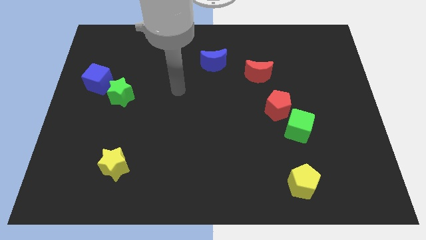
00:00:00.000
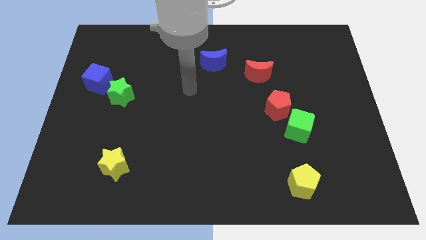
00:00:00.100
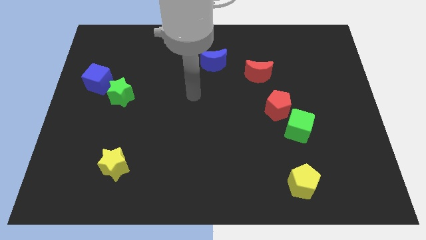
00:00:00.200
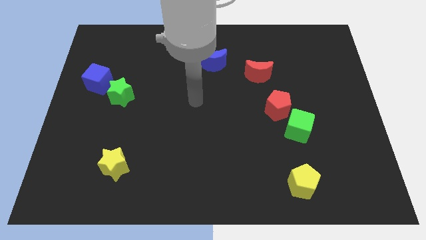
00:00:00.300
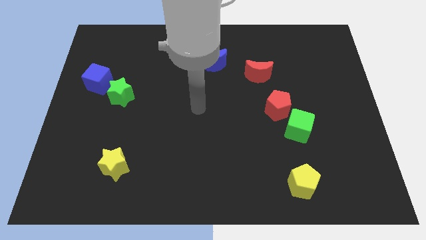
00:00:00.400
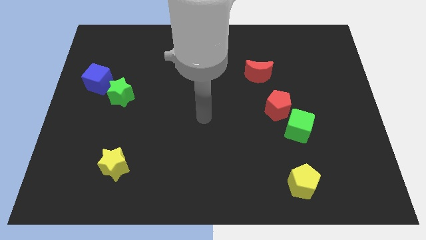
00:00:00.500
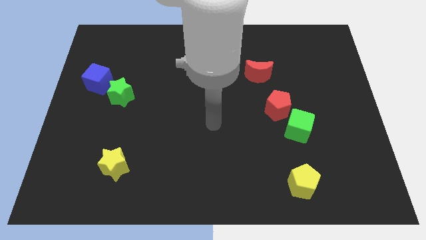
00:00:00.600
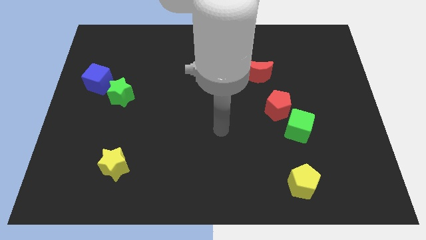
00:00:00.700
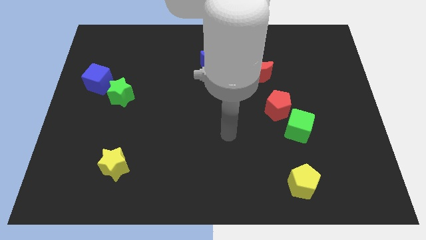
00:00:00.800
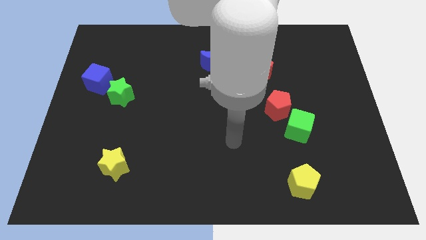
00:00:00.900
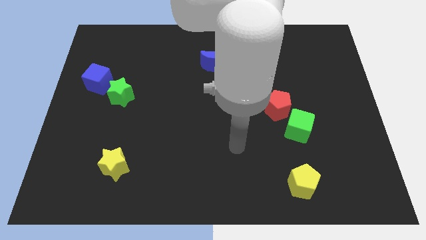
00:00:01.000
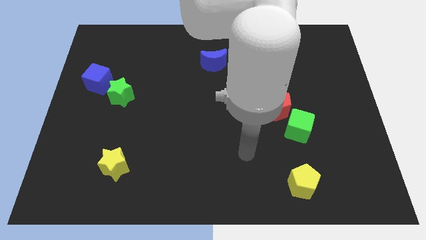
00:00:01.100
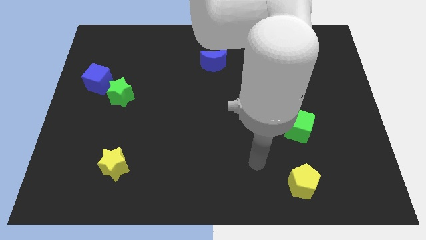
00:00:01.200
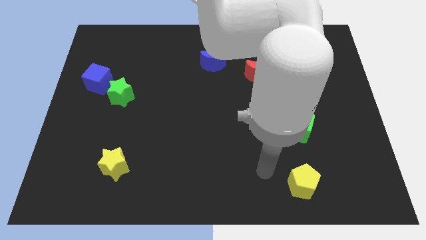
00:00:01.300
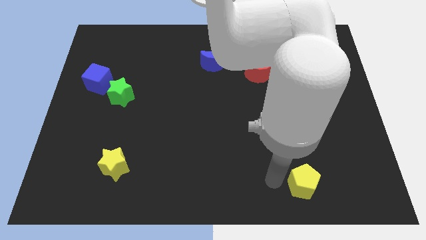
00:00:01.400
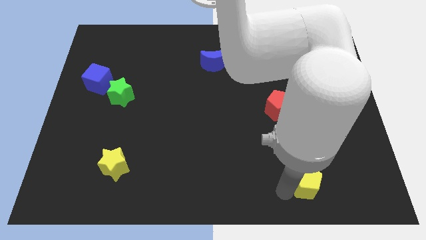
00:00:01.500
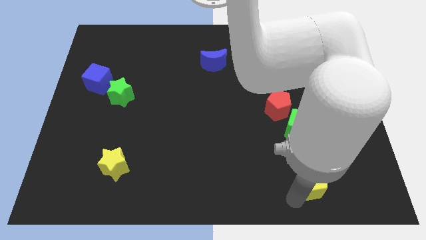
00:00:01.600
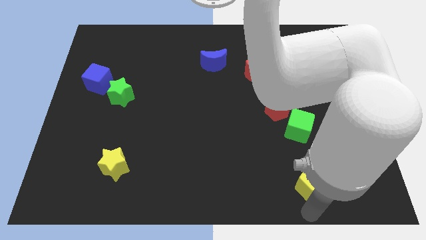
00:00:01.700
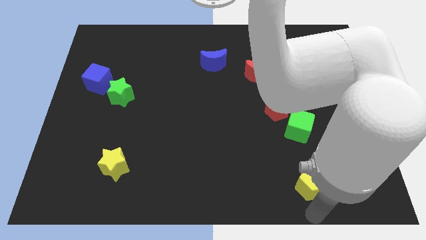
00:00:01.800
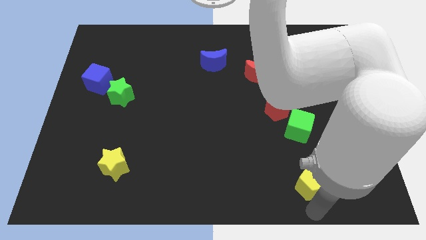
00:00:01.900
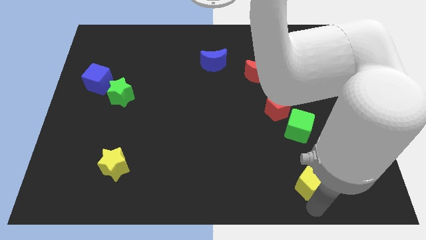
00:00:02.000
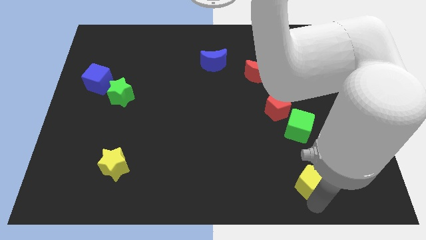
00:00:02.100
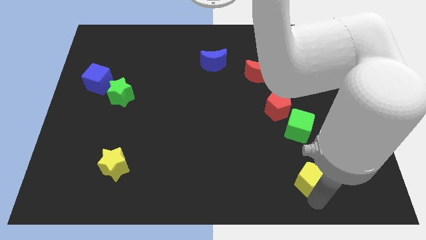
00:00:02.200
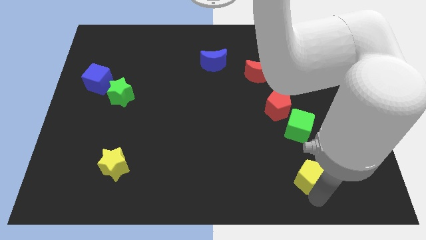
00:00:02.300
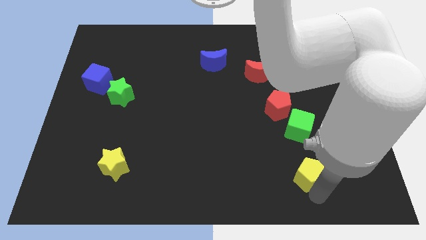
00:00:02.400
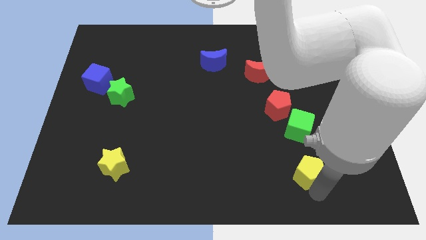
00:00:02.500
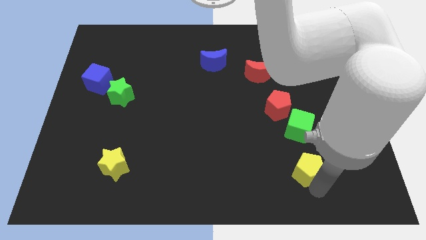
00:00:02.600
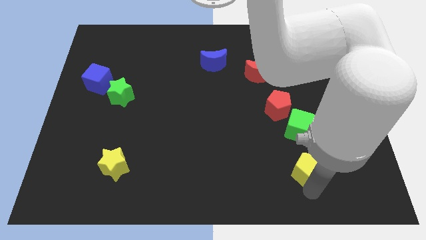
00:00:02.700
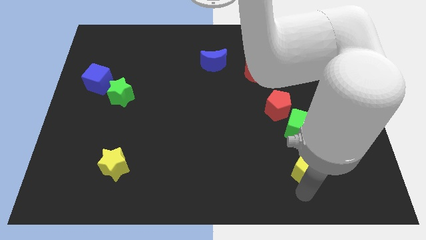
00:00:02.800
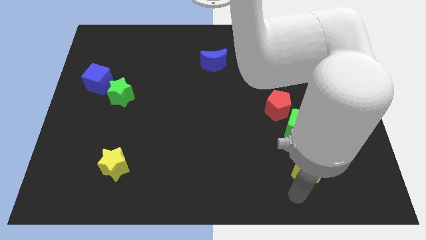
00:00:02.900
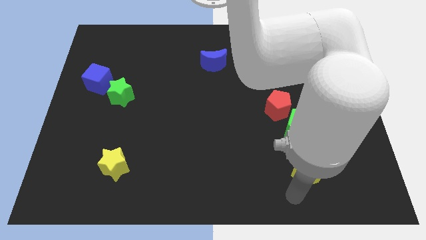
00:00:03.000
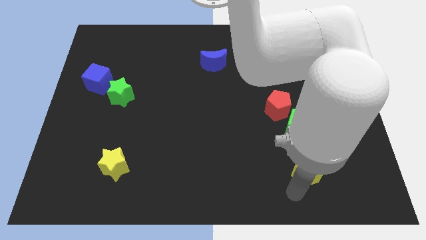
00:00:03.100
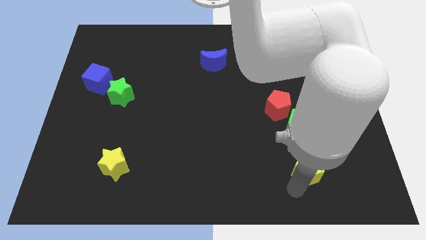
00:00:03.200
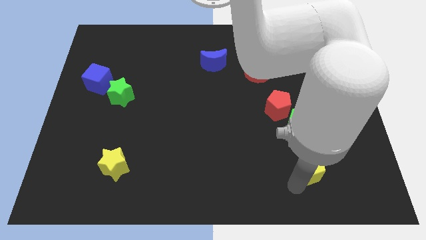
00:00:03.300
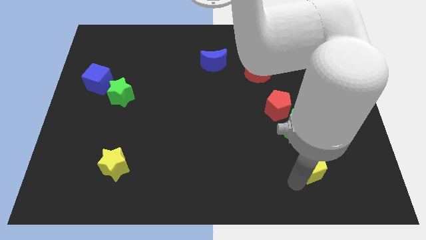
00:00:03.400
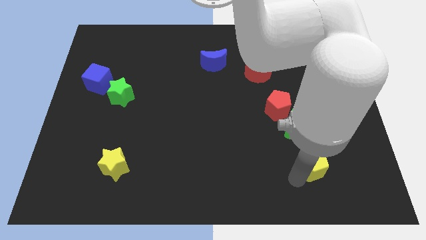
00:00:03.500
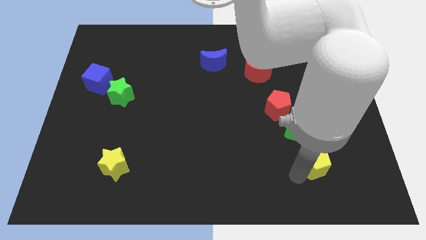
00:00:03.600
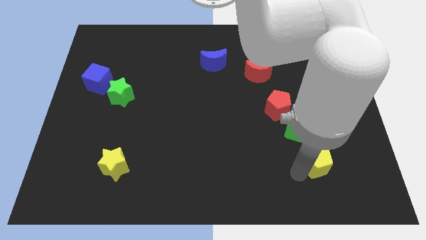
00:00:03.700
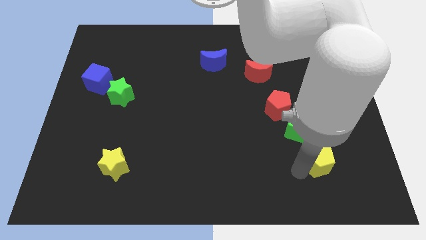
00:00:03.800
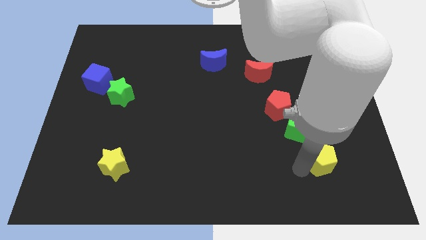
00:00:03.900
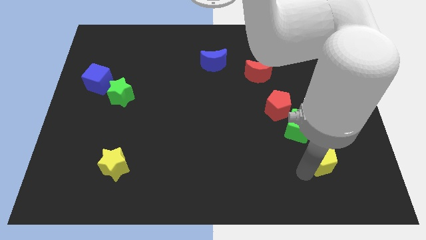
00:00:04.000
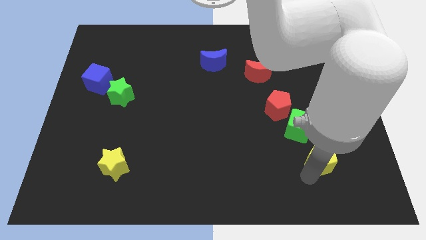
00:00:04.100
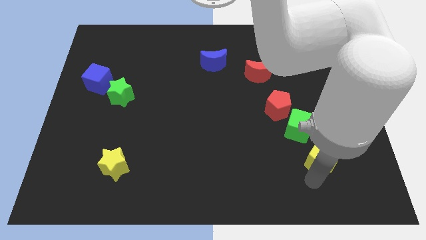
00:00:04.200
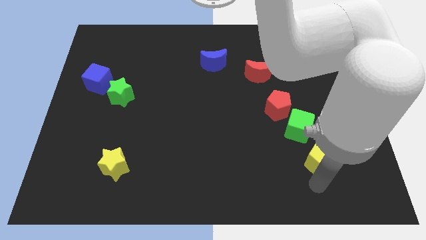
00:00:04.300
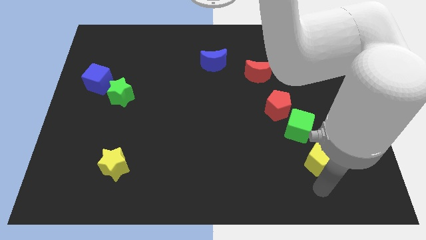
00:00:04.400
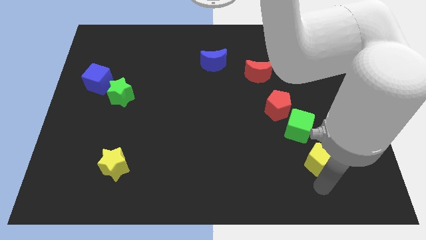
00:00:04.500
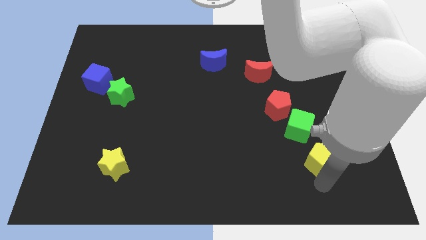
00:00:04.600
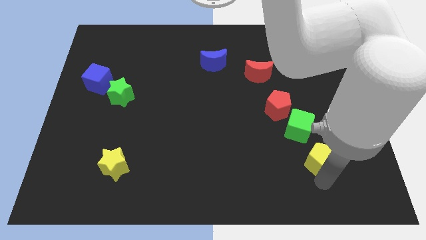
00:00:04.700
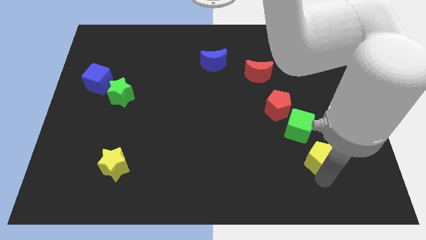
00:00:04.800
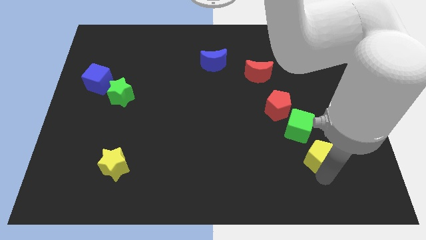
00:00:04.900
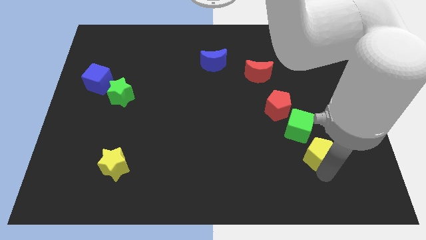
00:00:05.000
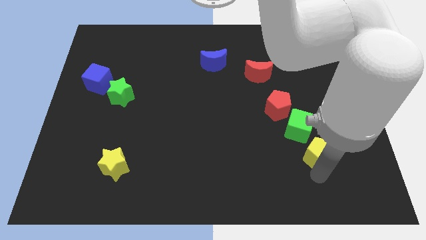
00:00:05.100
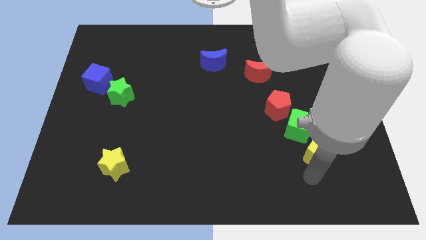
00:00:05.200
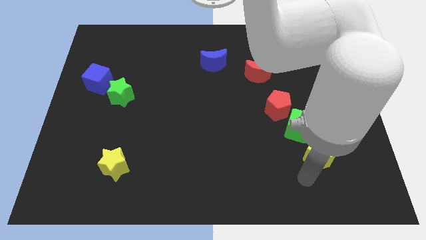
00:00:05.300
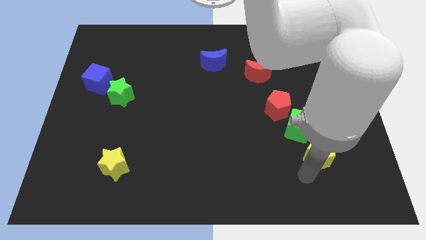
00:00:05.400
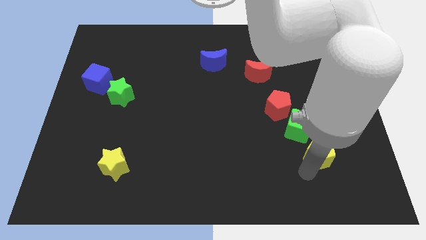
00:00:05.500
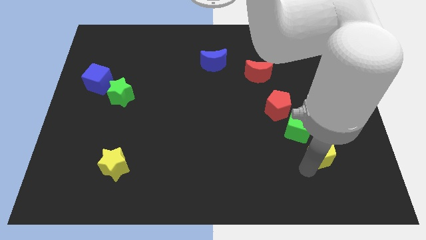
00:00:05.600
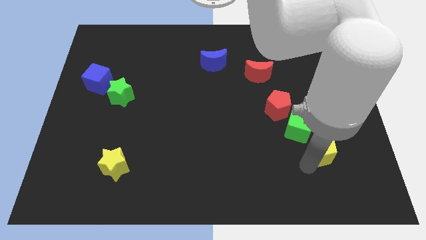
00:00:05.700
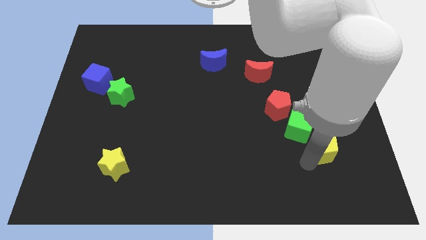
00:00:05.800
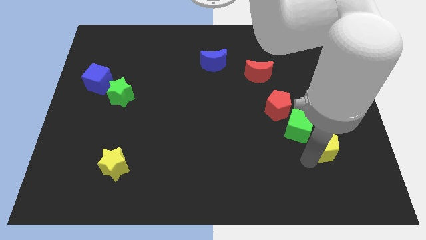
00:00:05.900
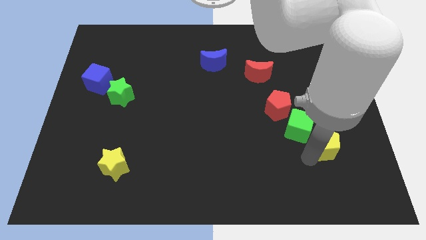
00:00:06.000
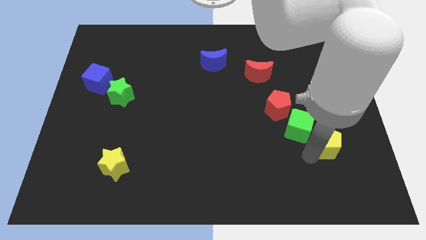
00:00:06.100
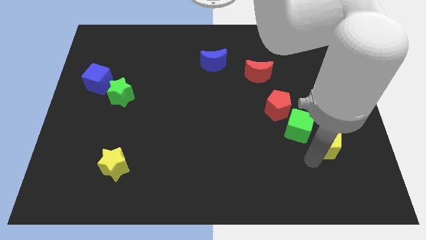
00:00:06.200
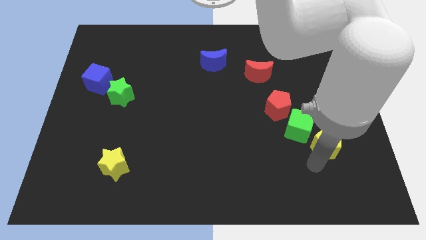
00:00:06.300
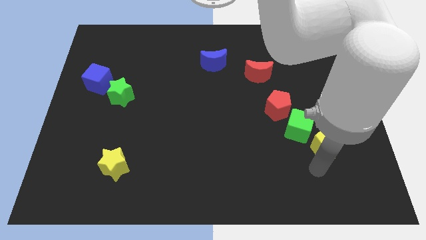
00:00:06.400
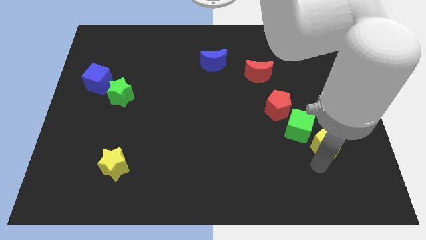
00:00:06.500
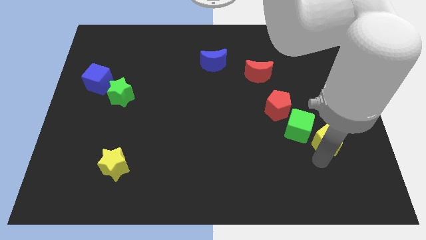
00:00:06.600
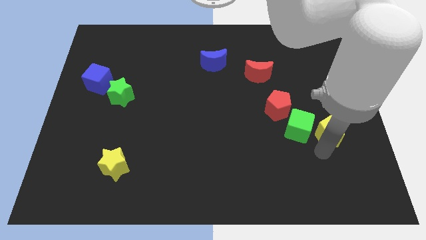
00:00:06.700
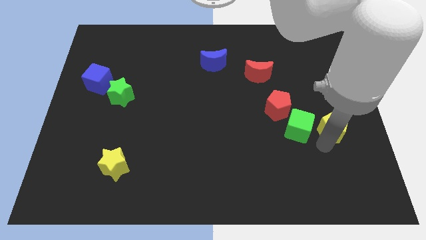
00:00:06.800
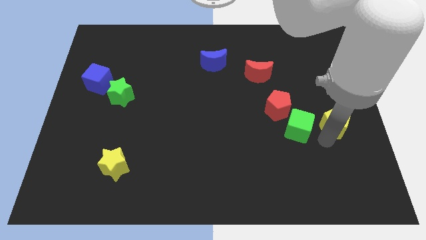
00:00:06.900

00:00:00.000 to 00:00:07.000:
push the yellow pentagon to the right side of the board

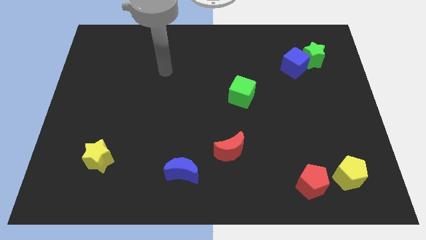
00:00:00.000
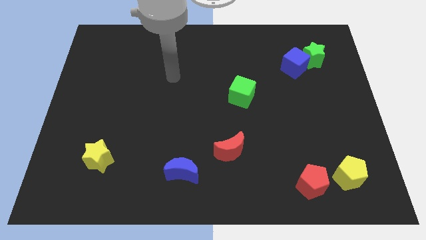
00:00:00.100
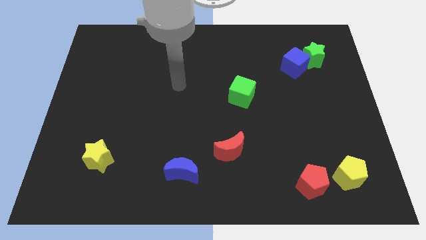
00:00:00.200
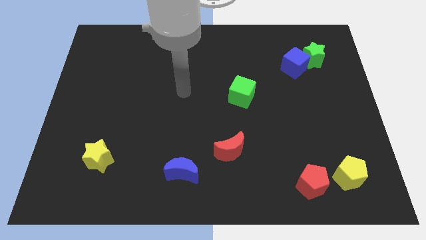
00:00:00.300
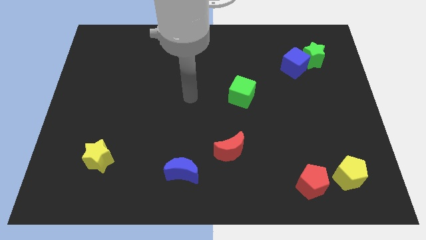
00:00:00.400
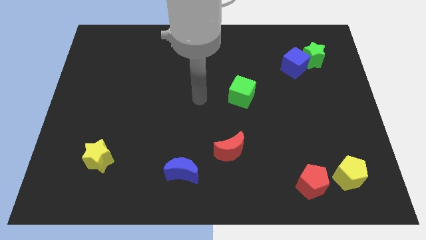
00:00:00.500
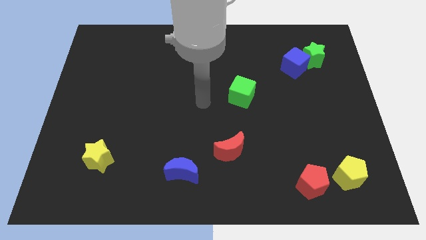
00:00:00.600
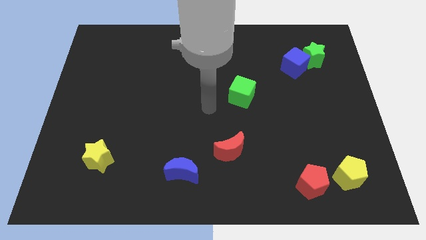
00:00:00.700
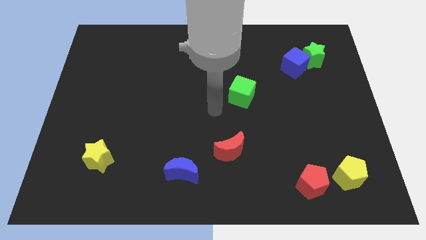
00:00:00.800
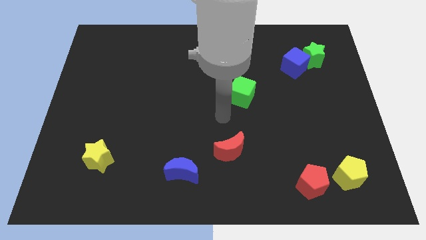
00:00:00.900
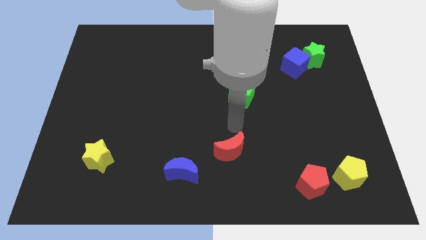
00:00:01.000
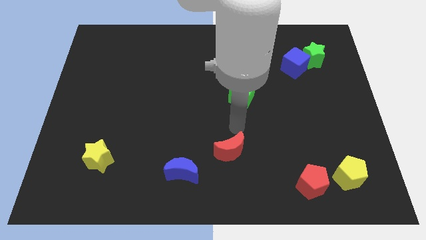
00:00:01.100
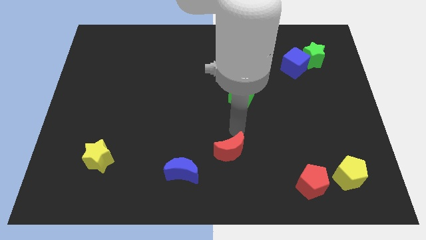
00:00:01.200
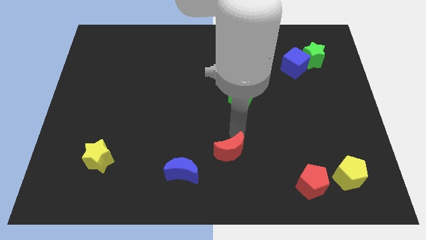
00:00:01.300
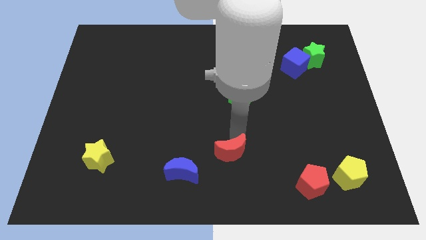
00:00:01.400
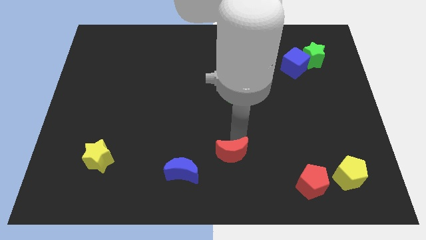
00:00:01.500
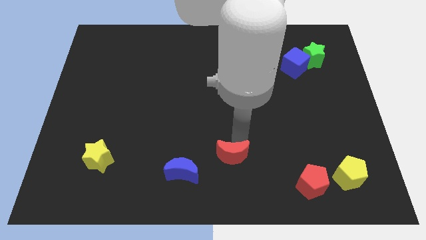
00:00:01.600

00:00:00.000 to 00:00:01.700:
push the red moon to the bottom
